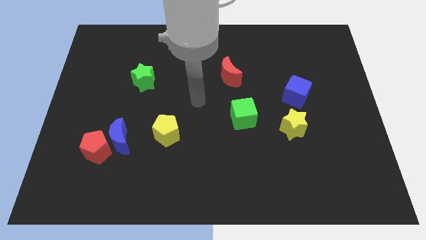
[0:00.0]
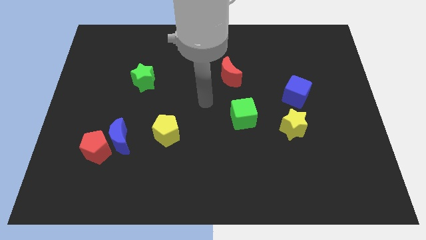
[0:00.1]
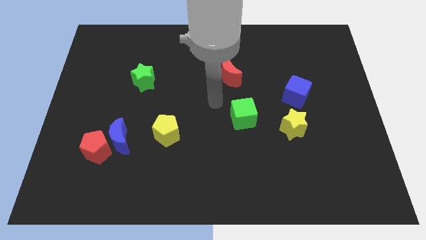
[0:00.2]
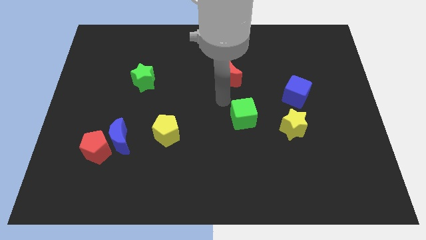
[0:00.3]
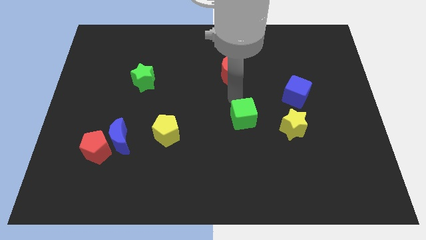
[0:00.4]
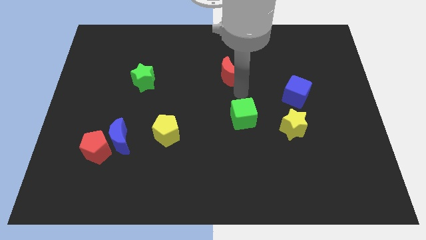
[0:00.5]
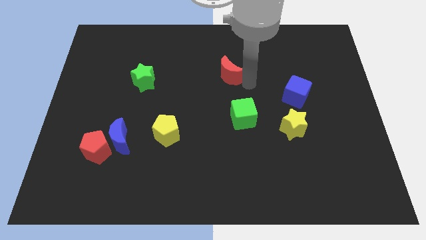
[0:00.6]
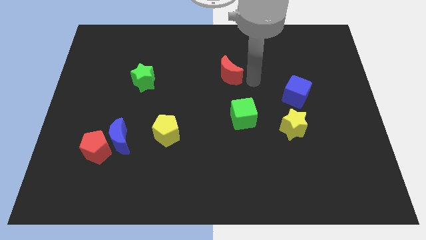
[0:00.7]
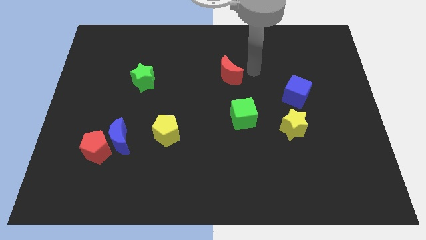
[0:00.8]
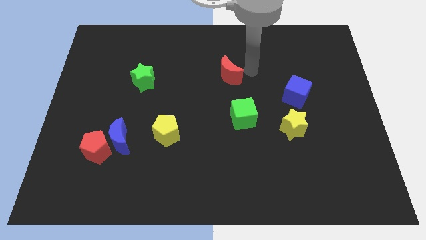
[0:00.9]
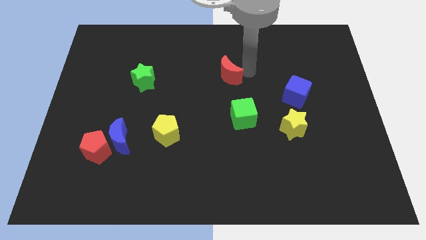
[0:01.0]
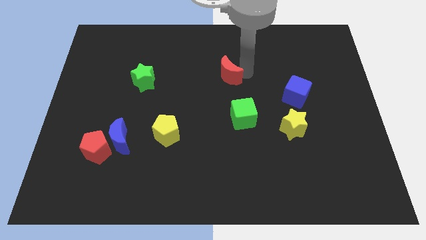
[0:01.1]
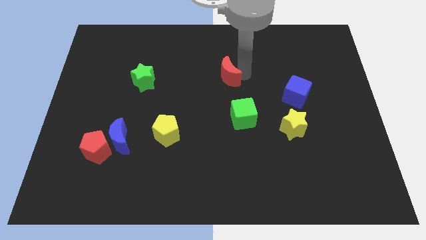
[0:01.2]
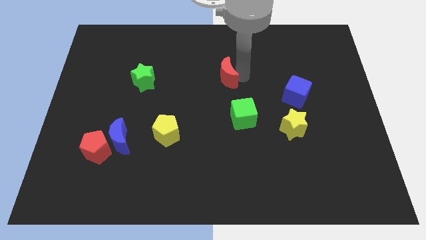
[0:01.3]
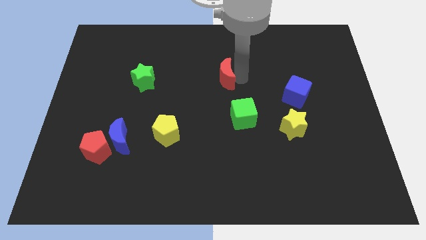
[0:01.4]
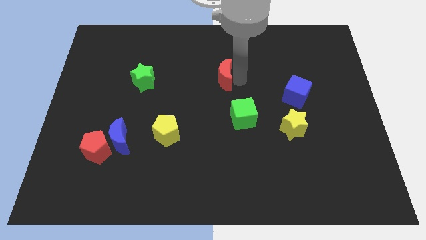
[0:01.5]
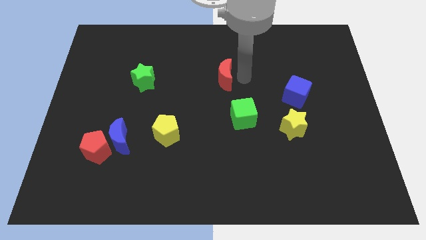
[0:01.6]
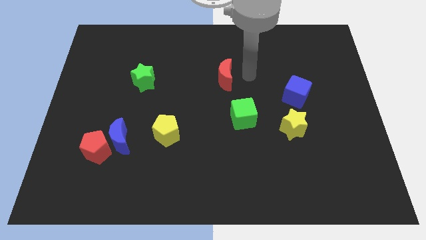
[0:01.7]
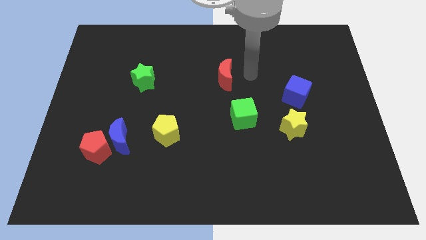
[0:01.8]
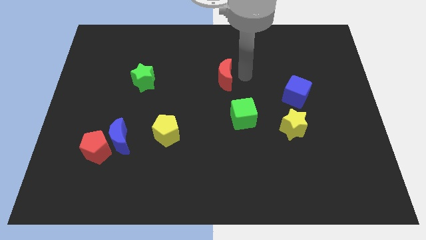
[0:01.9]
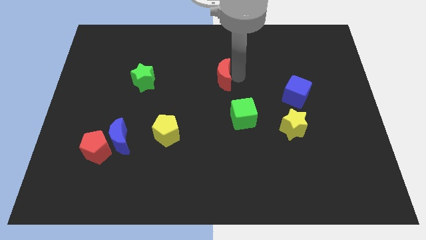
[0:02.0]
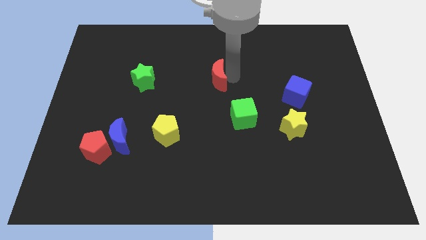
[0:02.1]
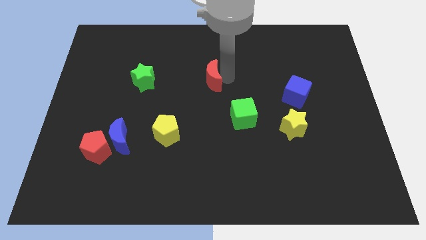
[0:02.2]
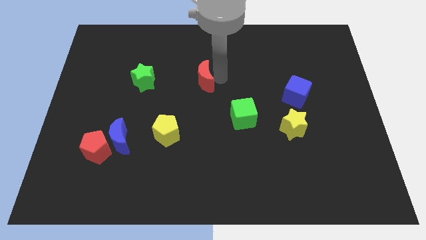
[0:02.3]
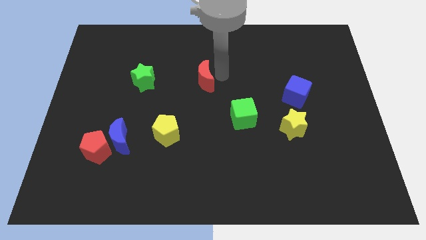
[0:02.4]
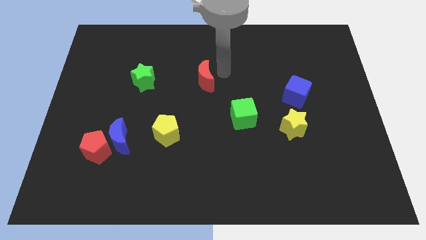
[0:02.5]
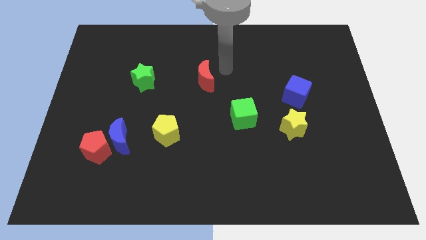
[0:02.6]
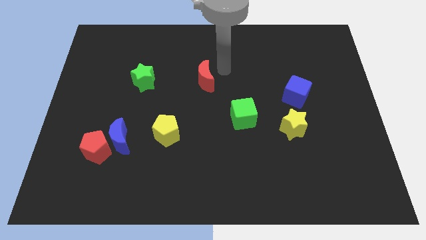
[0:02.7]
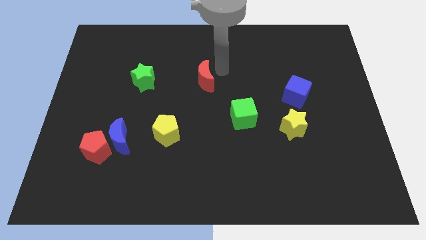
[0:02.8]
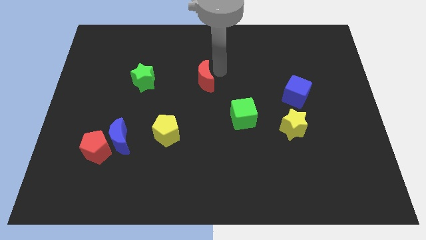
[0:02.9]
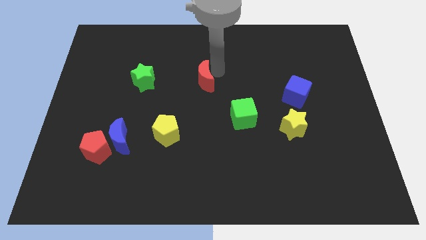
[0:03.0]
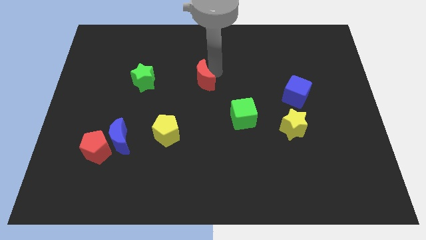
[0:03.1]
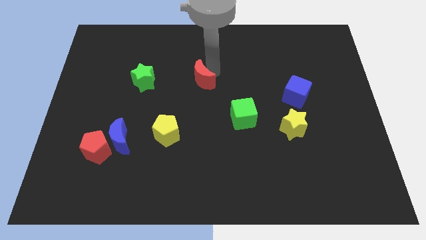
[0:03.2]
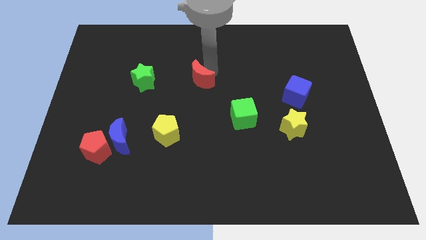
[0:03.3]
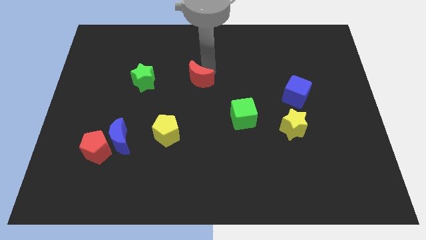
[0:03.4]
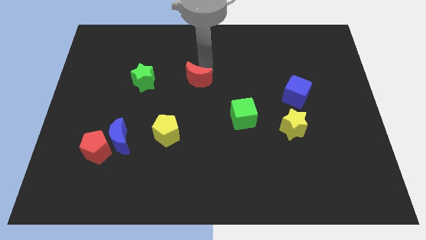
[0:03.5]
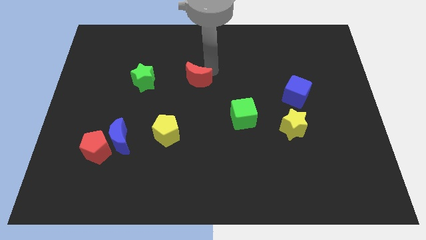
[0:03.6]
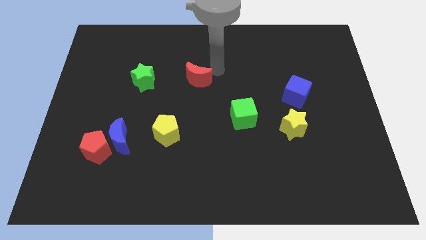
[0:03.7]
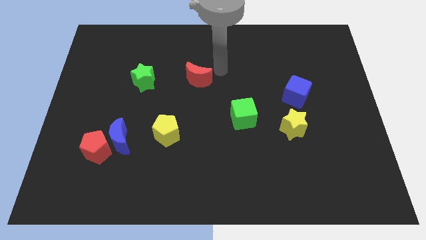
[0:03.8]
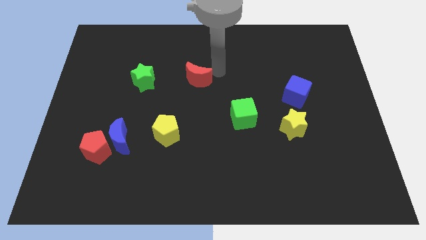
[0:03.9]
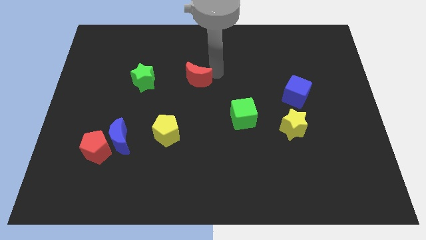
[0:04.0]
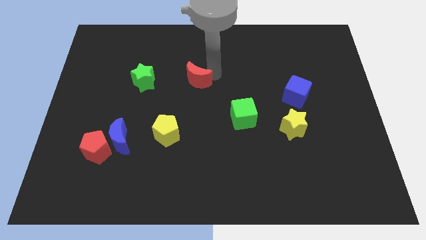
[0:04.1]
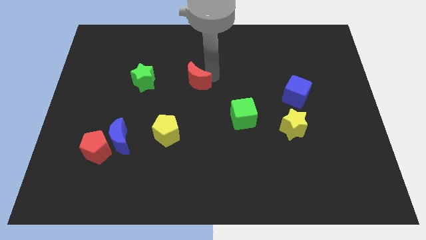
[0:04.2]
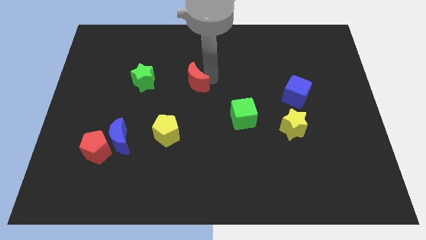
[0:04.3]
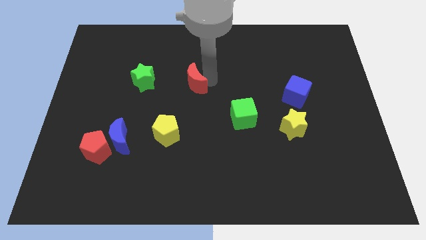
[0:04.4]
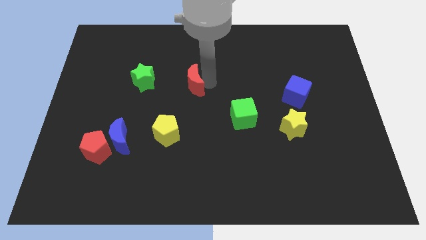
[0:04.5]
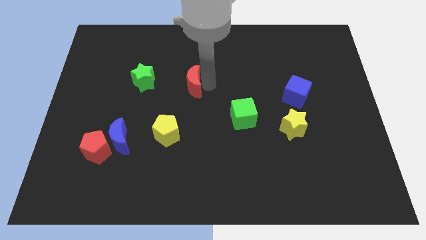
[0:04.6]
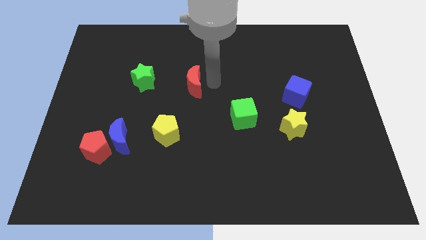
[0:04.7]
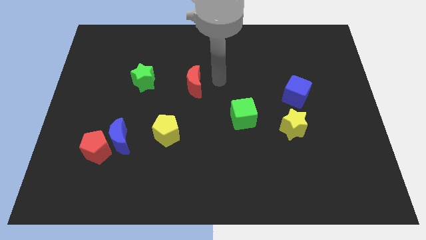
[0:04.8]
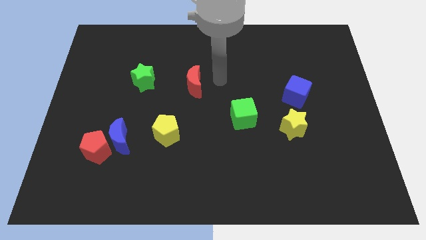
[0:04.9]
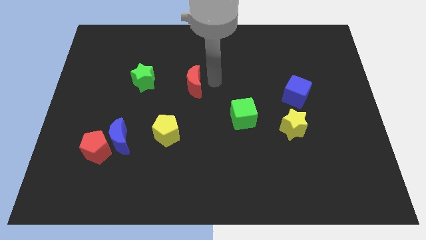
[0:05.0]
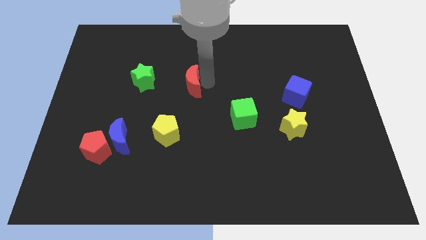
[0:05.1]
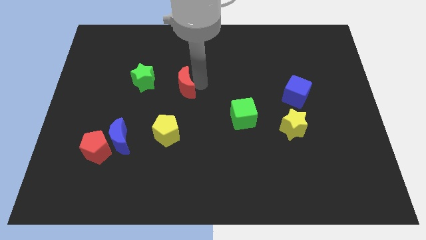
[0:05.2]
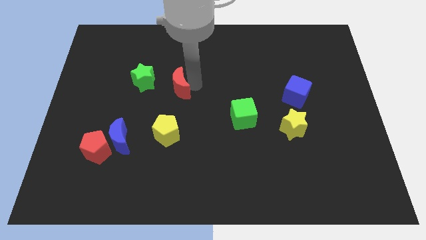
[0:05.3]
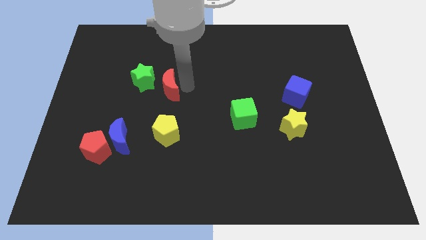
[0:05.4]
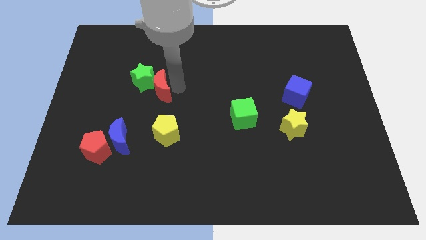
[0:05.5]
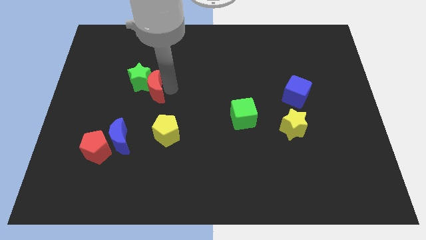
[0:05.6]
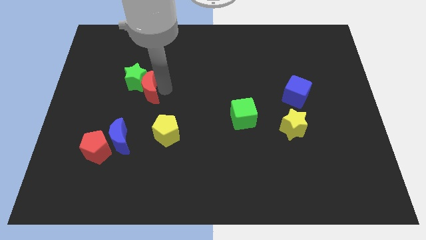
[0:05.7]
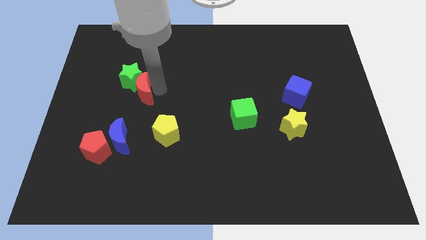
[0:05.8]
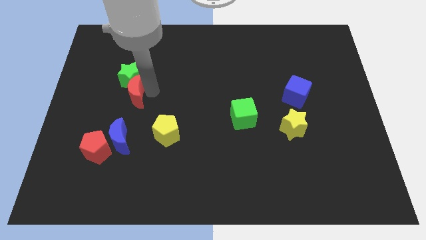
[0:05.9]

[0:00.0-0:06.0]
put the red moon to the bottom left side of the green star

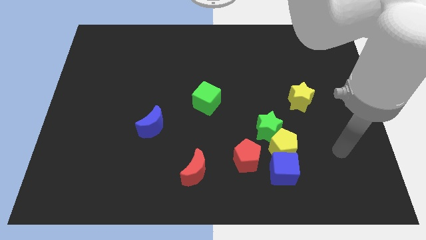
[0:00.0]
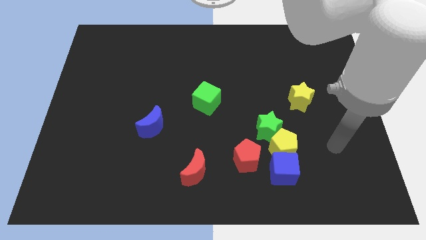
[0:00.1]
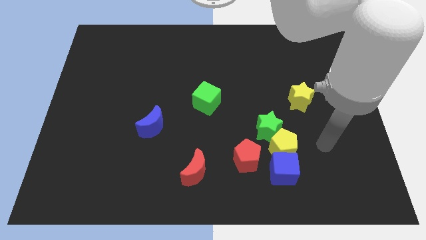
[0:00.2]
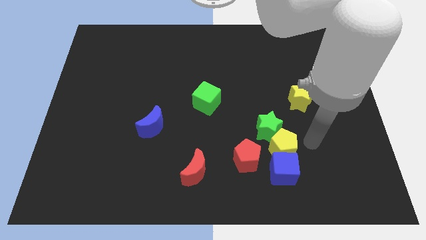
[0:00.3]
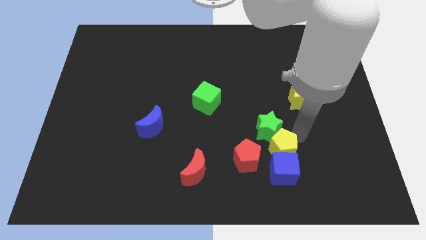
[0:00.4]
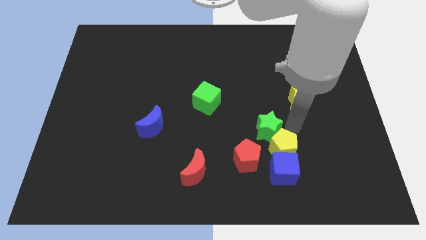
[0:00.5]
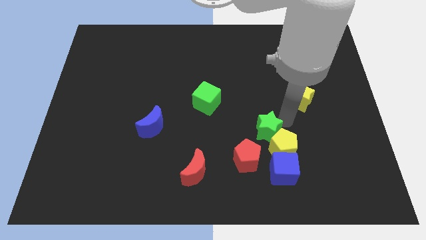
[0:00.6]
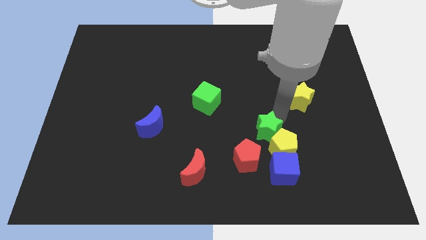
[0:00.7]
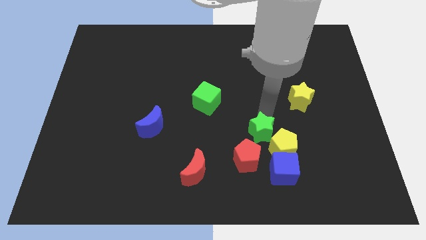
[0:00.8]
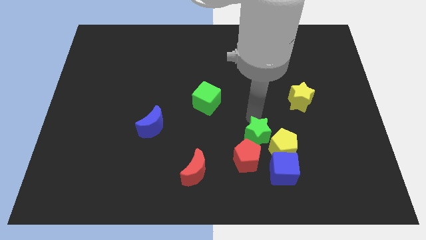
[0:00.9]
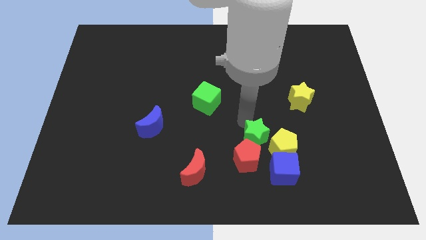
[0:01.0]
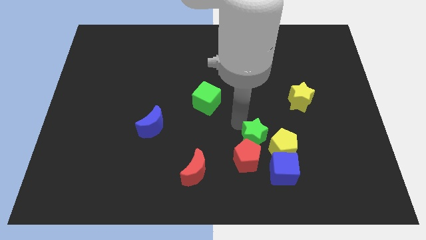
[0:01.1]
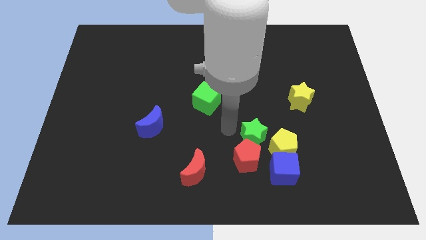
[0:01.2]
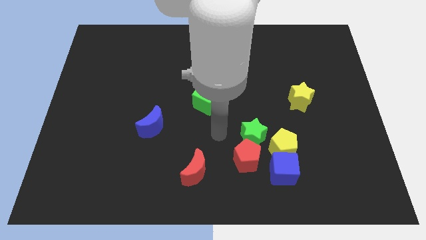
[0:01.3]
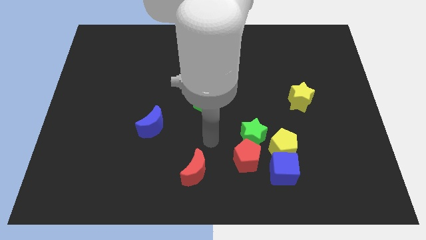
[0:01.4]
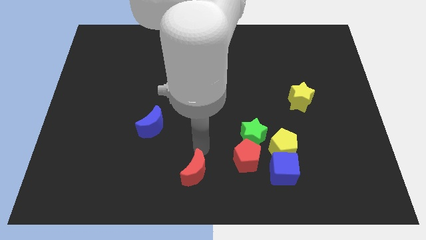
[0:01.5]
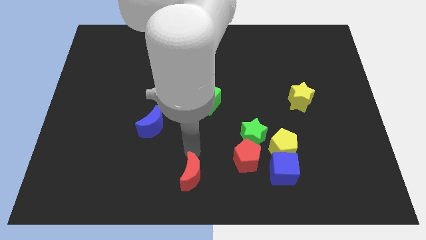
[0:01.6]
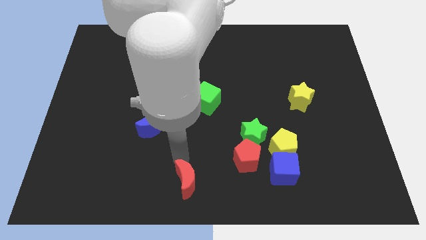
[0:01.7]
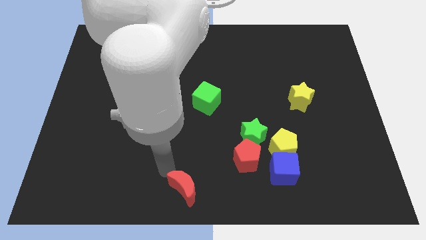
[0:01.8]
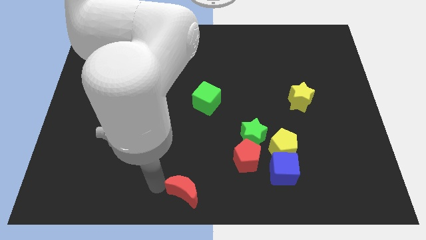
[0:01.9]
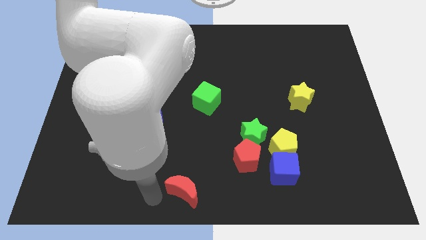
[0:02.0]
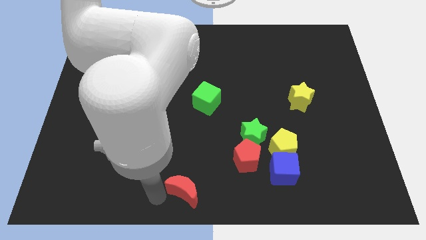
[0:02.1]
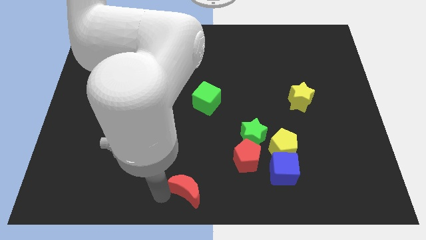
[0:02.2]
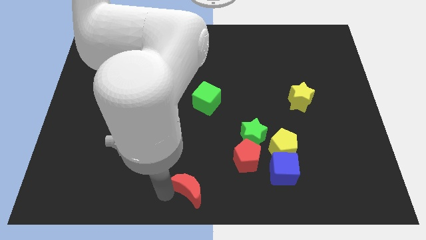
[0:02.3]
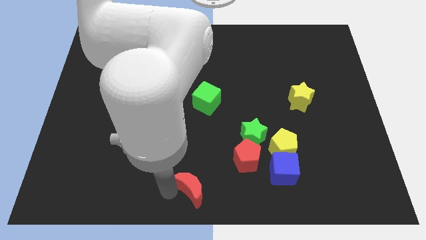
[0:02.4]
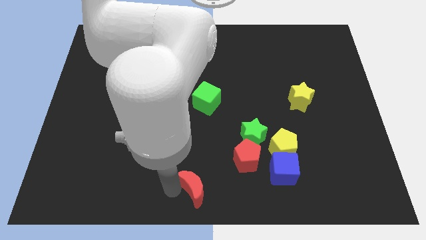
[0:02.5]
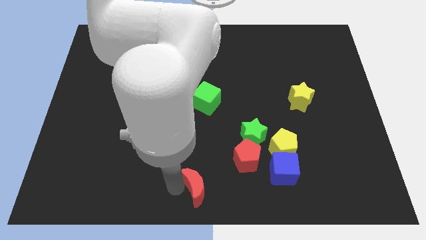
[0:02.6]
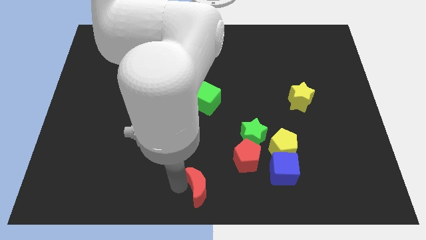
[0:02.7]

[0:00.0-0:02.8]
slide the red moon diagonally down and to the left of the red pentagon
